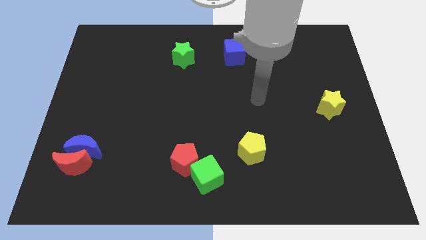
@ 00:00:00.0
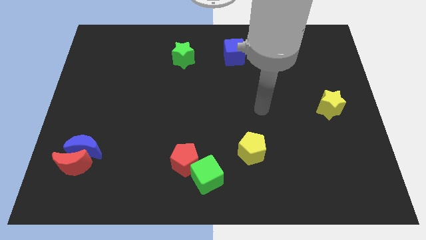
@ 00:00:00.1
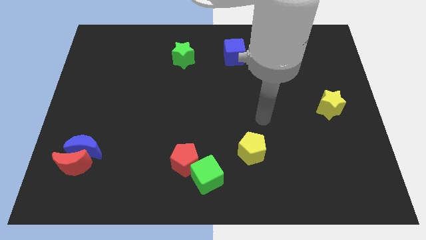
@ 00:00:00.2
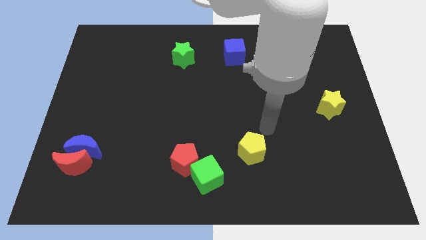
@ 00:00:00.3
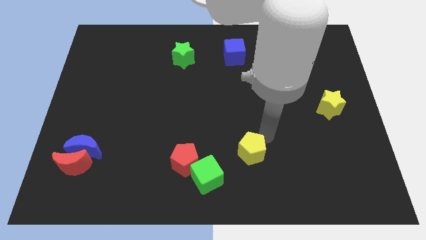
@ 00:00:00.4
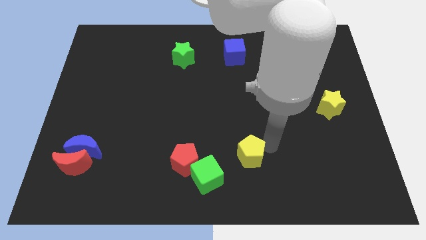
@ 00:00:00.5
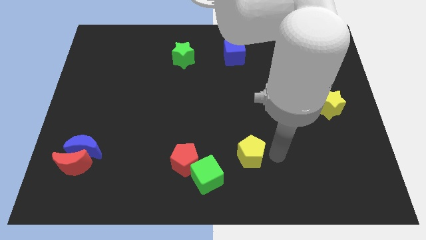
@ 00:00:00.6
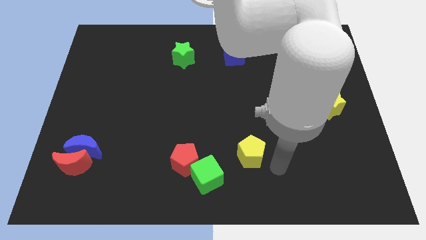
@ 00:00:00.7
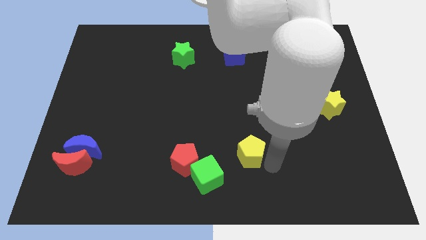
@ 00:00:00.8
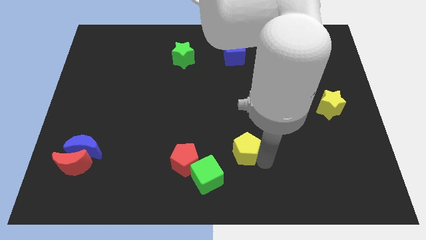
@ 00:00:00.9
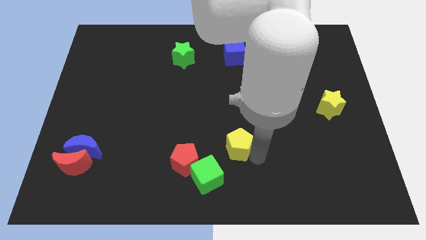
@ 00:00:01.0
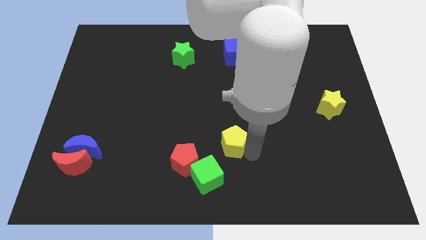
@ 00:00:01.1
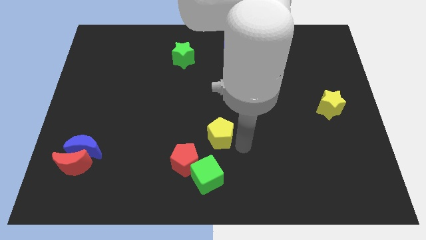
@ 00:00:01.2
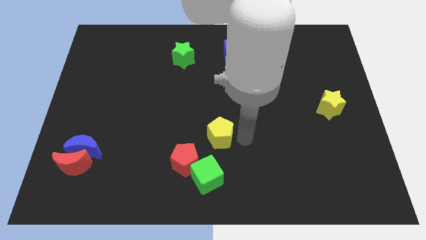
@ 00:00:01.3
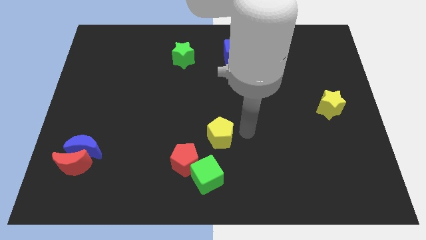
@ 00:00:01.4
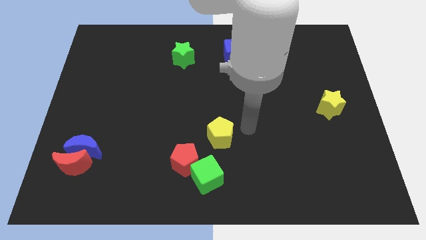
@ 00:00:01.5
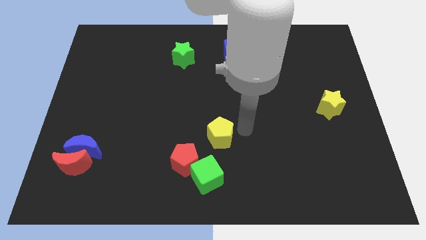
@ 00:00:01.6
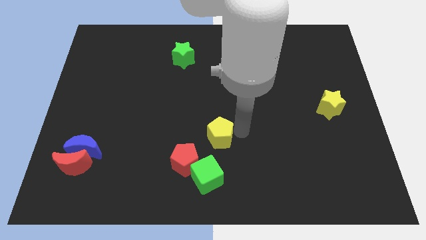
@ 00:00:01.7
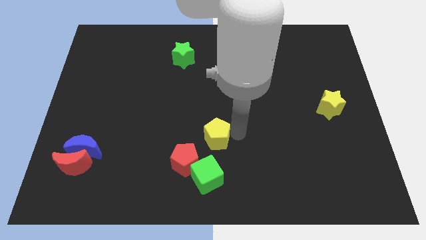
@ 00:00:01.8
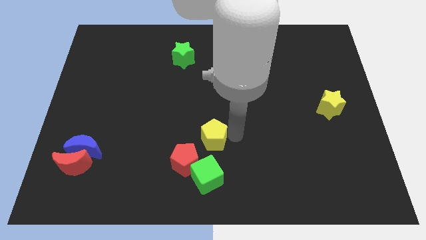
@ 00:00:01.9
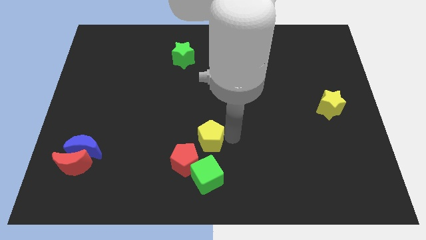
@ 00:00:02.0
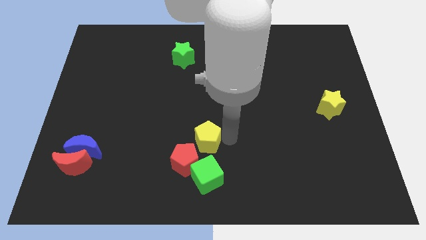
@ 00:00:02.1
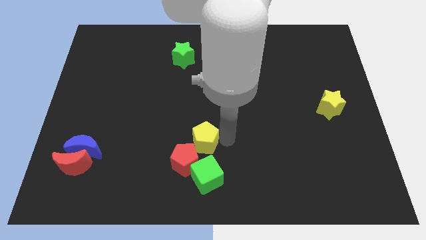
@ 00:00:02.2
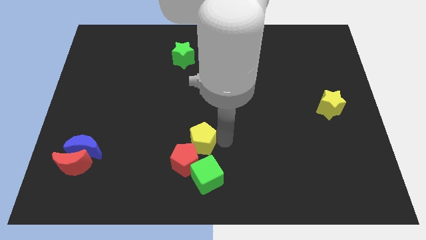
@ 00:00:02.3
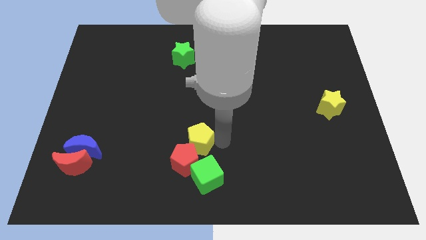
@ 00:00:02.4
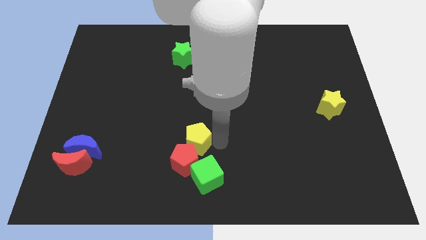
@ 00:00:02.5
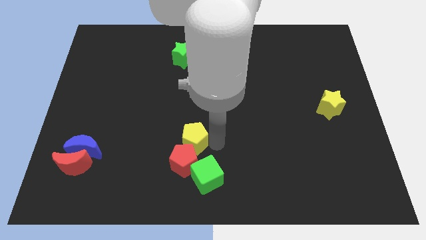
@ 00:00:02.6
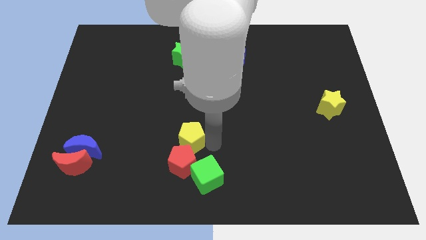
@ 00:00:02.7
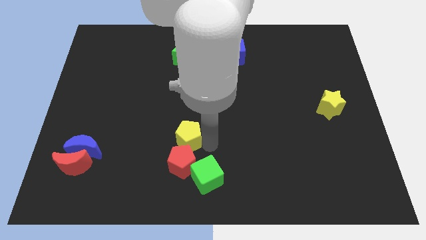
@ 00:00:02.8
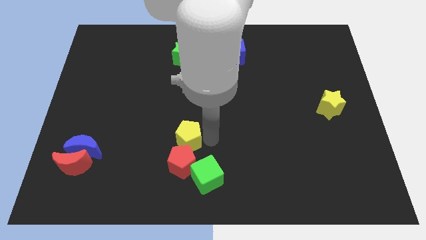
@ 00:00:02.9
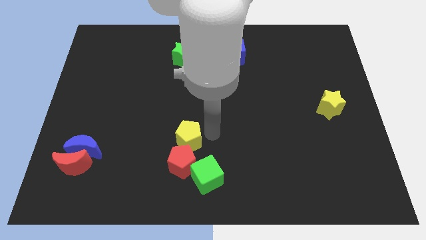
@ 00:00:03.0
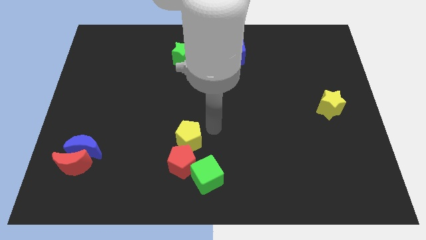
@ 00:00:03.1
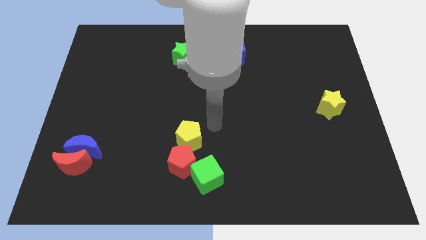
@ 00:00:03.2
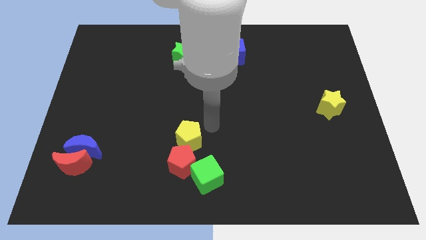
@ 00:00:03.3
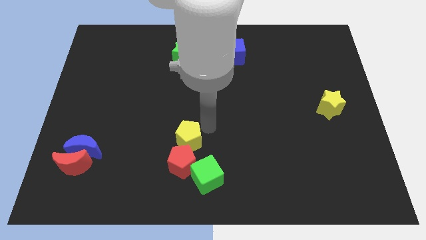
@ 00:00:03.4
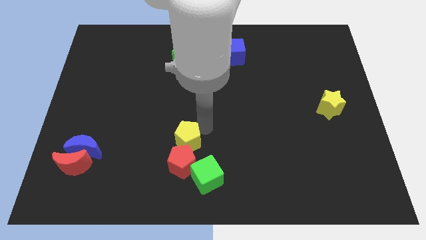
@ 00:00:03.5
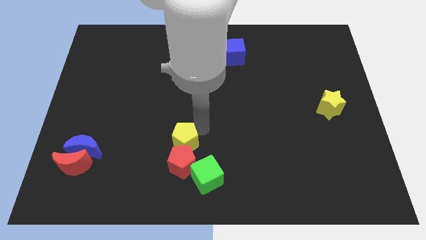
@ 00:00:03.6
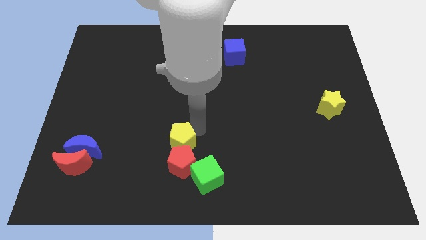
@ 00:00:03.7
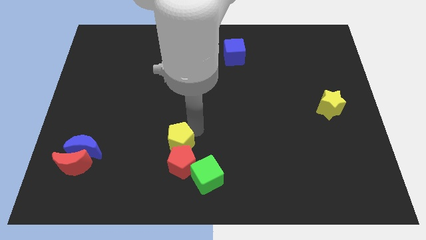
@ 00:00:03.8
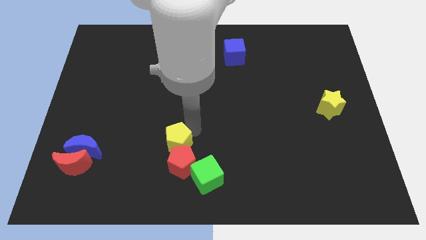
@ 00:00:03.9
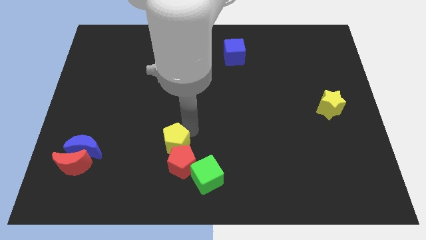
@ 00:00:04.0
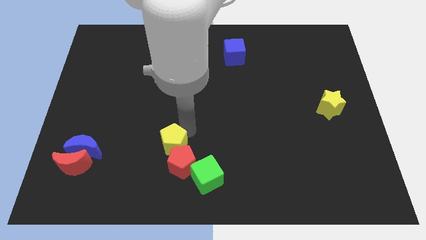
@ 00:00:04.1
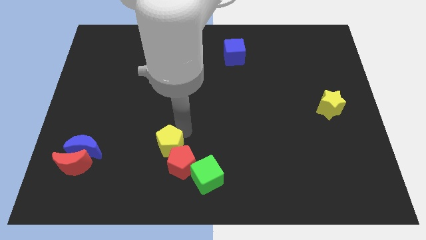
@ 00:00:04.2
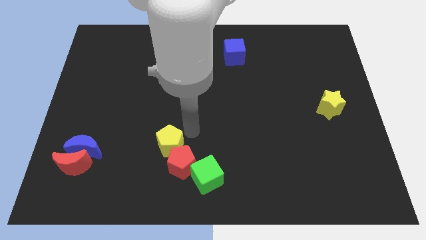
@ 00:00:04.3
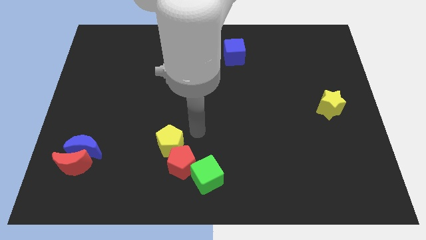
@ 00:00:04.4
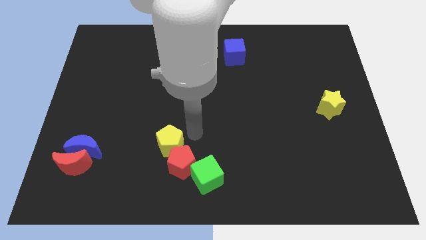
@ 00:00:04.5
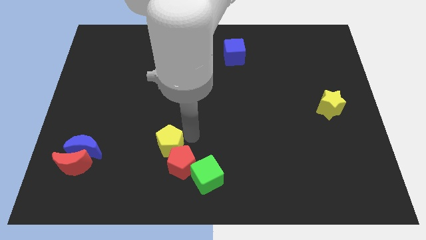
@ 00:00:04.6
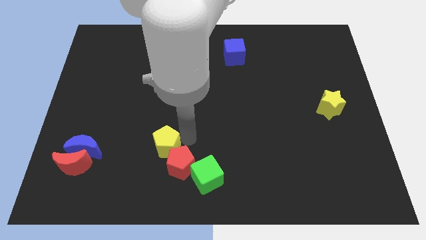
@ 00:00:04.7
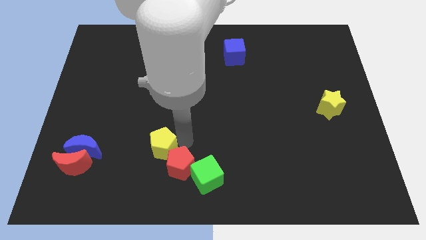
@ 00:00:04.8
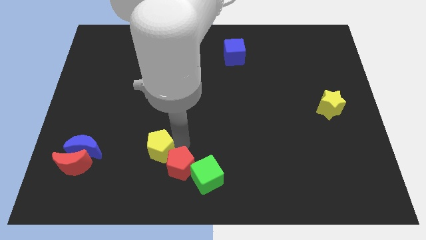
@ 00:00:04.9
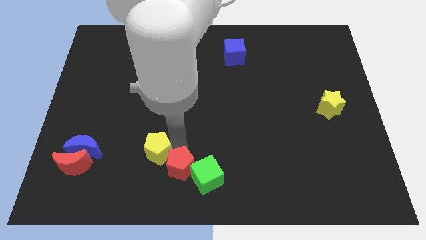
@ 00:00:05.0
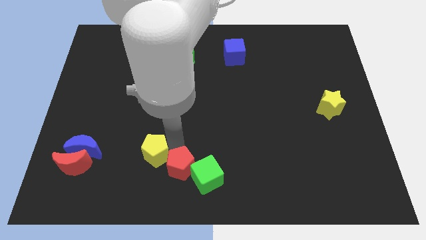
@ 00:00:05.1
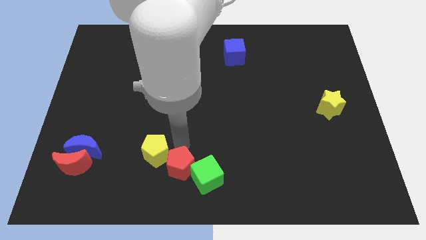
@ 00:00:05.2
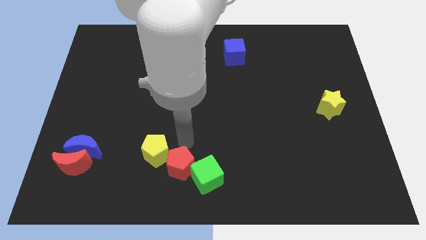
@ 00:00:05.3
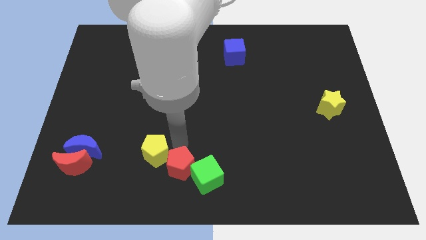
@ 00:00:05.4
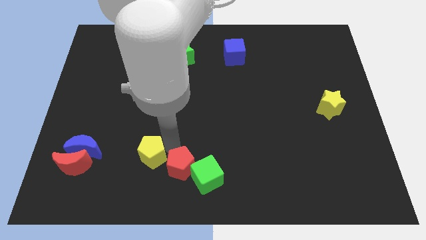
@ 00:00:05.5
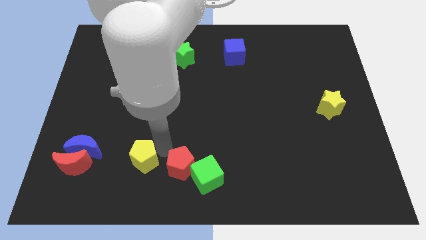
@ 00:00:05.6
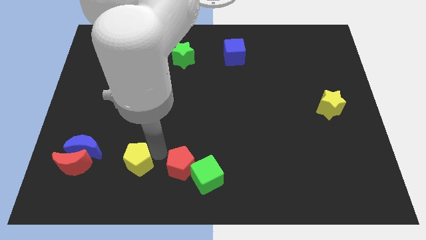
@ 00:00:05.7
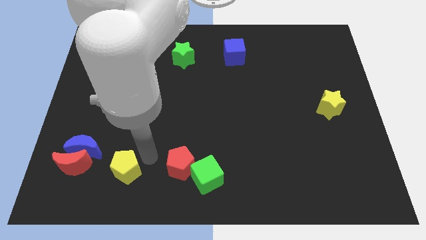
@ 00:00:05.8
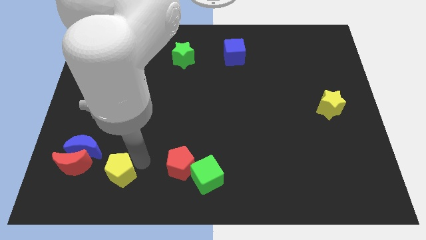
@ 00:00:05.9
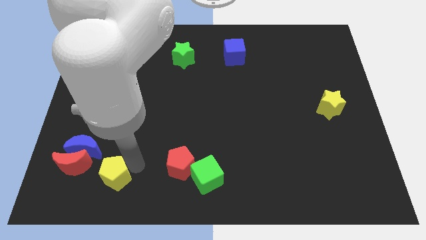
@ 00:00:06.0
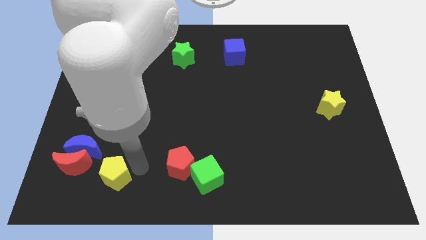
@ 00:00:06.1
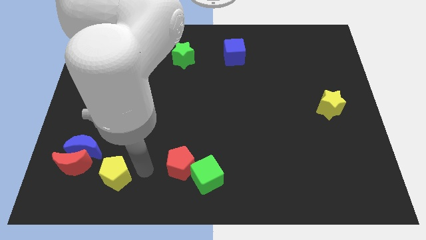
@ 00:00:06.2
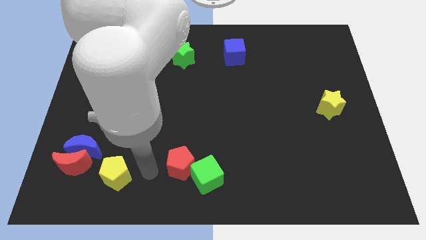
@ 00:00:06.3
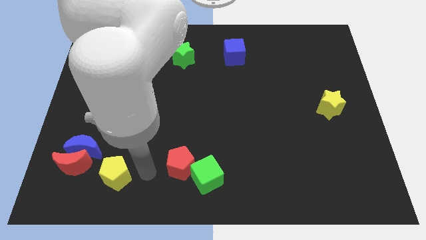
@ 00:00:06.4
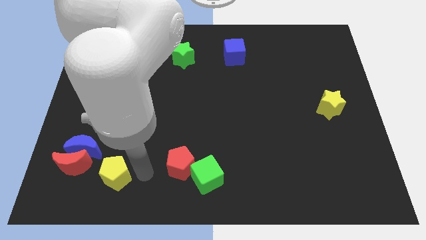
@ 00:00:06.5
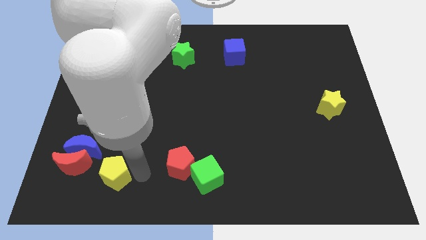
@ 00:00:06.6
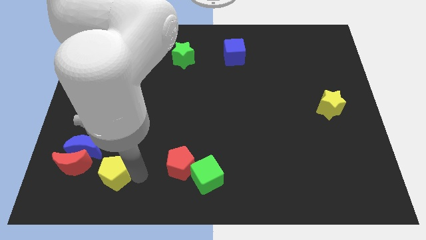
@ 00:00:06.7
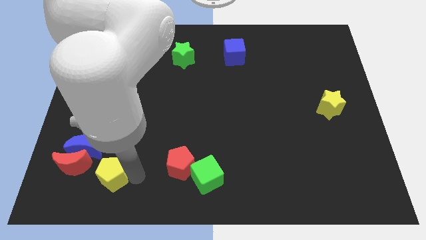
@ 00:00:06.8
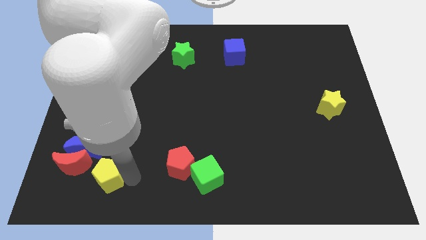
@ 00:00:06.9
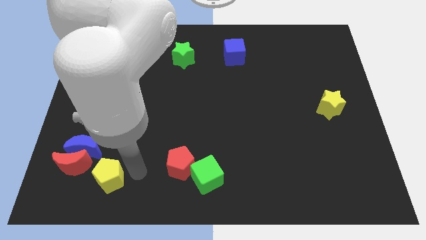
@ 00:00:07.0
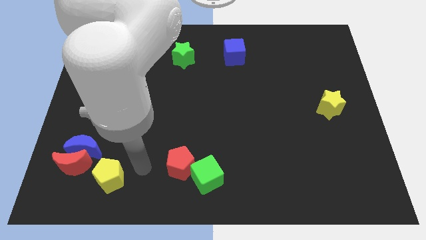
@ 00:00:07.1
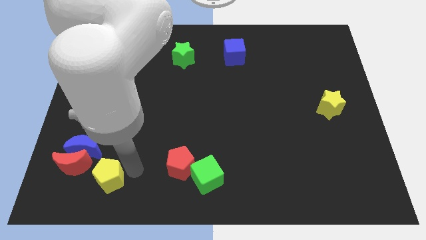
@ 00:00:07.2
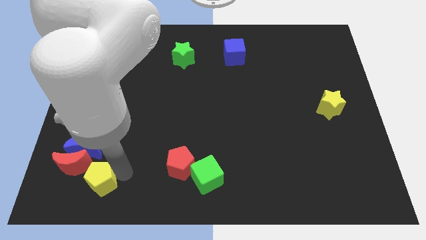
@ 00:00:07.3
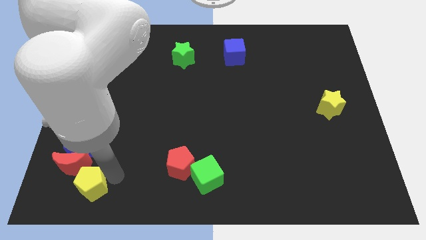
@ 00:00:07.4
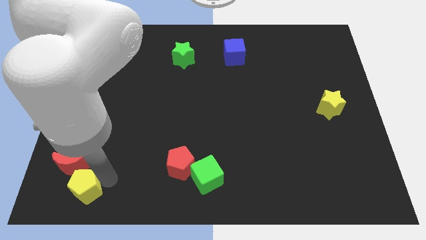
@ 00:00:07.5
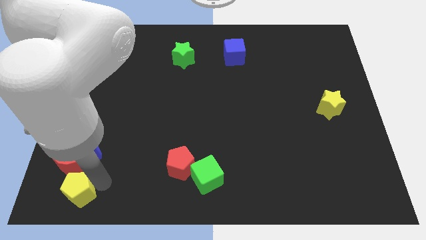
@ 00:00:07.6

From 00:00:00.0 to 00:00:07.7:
push the yellow pentagon to the bottom left of the board
